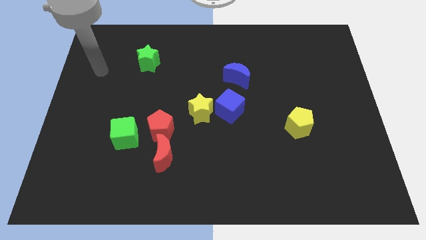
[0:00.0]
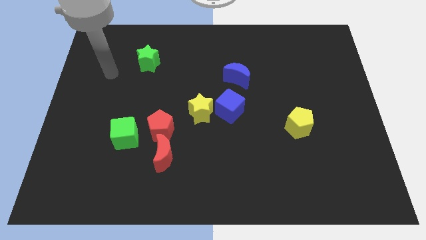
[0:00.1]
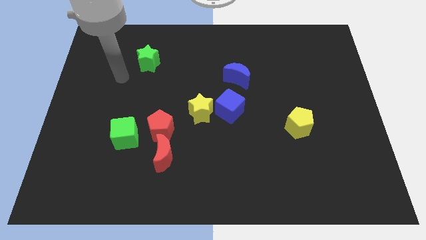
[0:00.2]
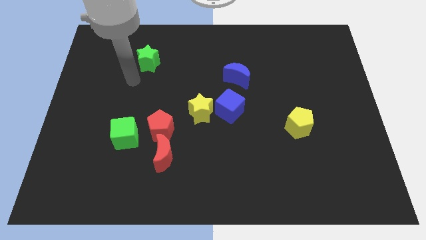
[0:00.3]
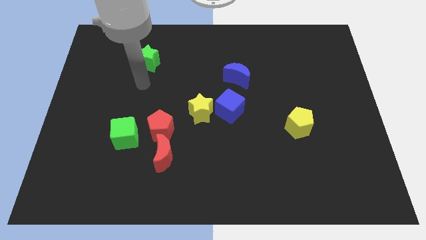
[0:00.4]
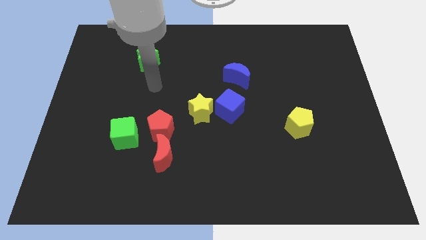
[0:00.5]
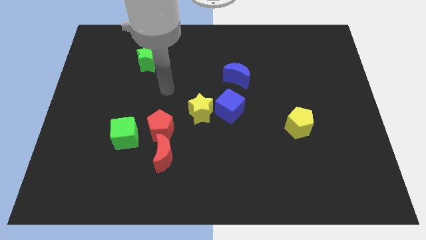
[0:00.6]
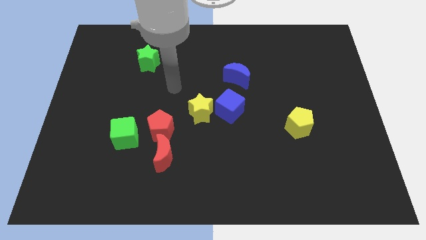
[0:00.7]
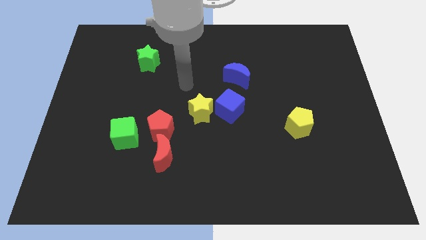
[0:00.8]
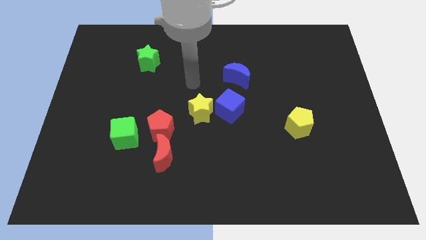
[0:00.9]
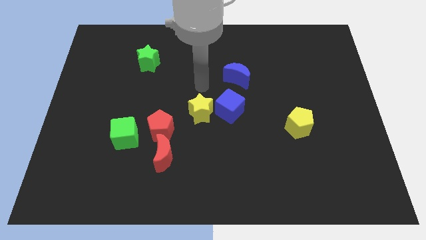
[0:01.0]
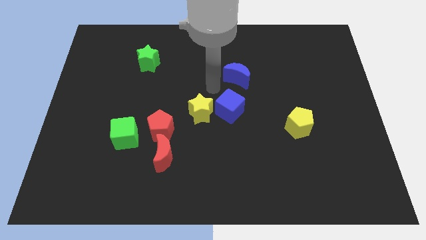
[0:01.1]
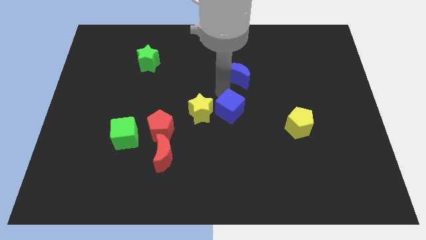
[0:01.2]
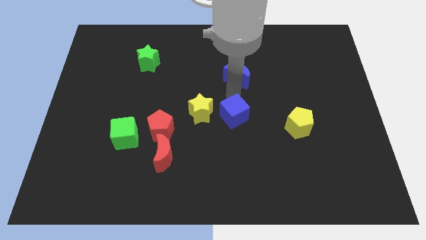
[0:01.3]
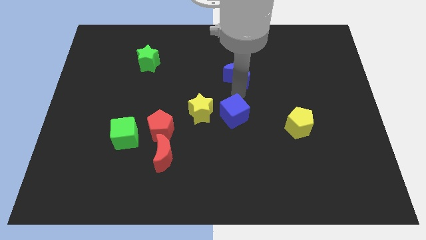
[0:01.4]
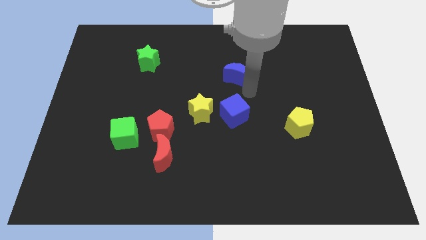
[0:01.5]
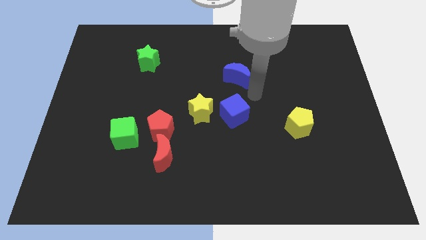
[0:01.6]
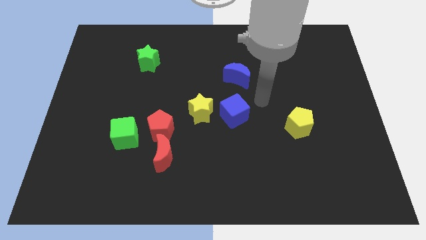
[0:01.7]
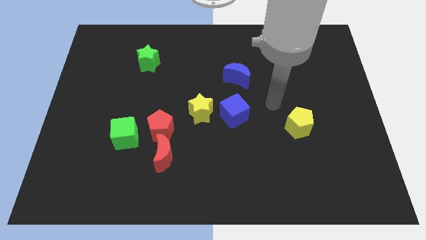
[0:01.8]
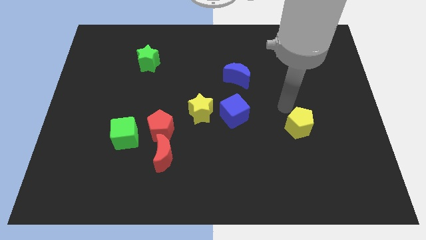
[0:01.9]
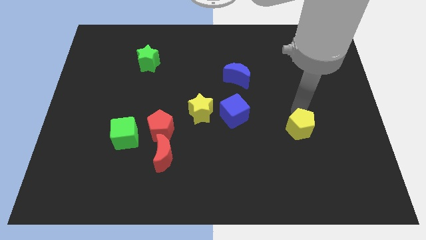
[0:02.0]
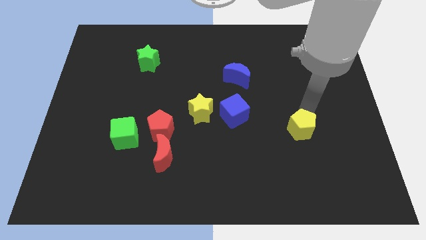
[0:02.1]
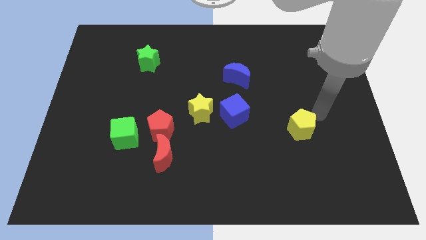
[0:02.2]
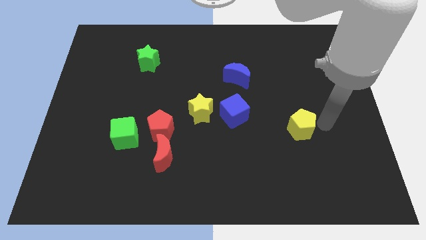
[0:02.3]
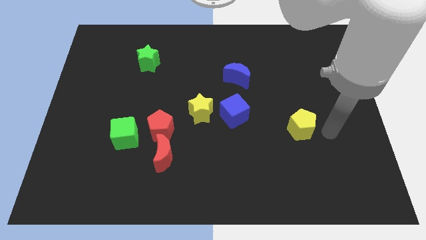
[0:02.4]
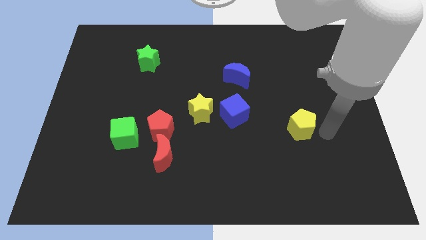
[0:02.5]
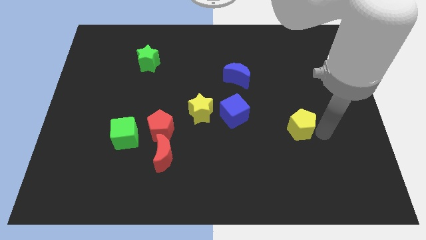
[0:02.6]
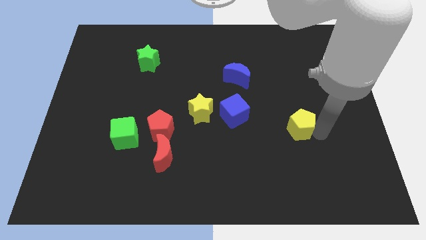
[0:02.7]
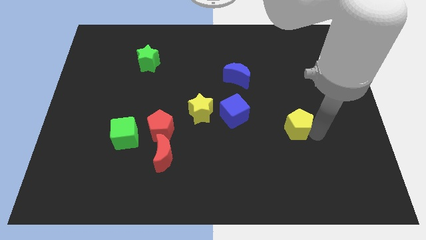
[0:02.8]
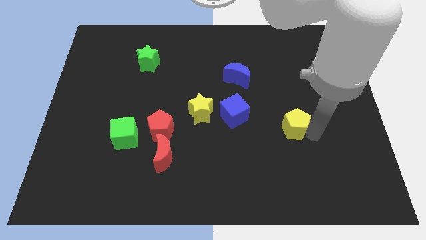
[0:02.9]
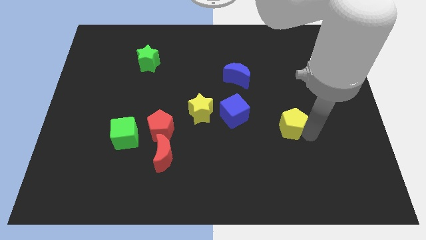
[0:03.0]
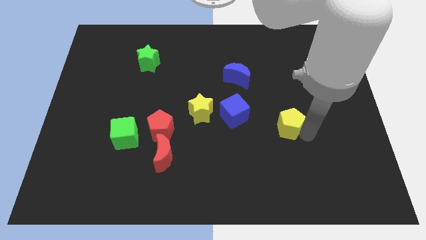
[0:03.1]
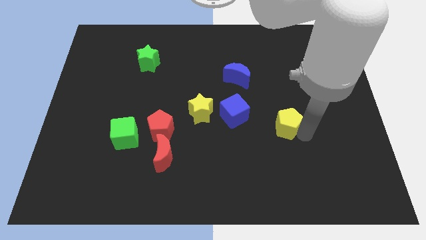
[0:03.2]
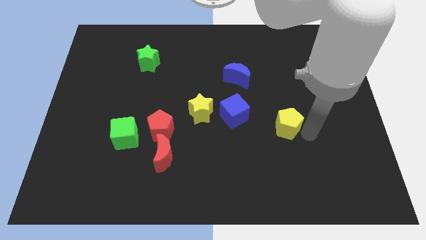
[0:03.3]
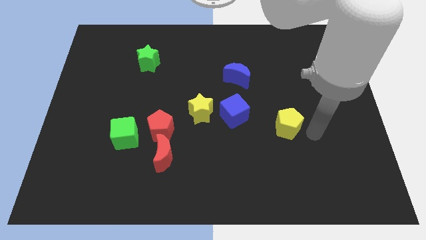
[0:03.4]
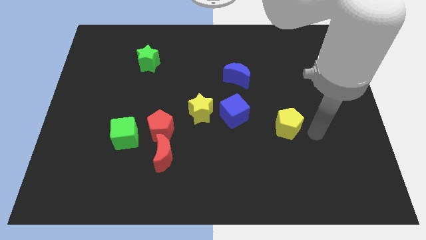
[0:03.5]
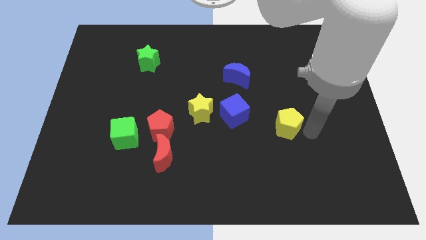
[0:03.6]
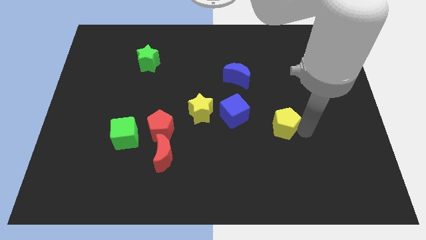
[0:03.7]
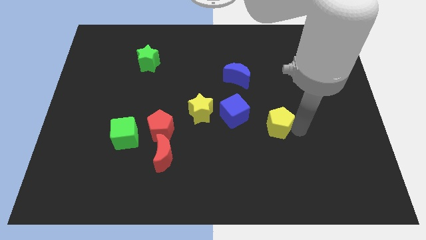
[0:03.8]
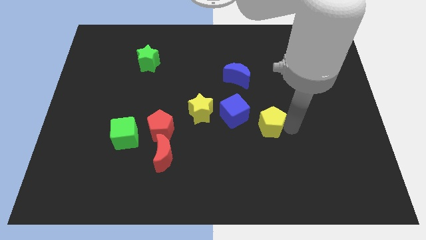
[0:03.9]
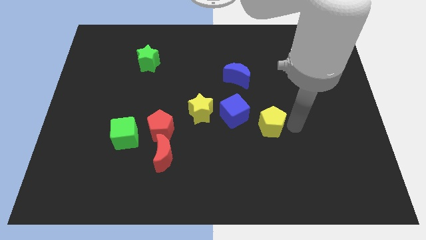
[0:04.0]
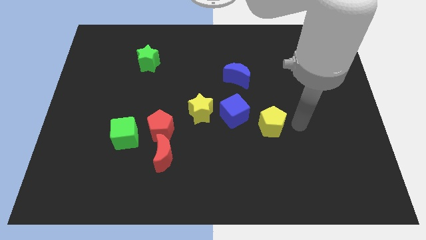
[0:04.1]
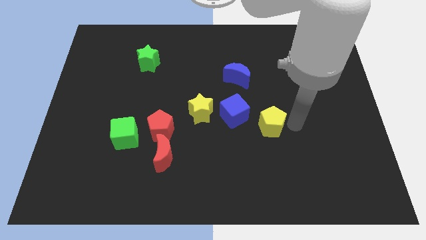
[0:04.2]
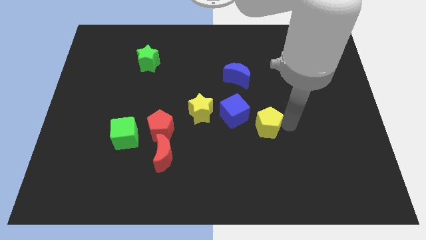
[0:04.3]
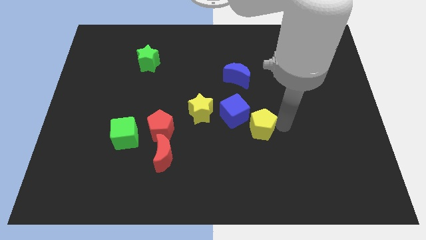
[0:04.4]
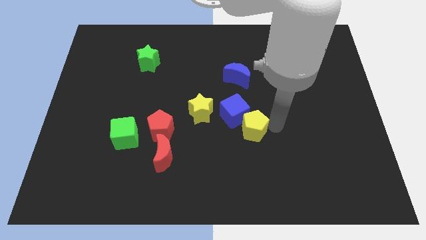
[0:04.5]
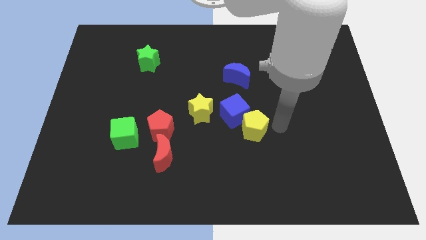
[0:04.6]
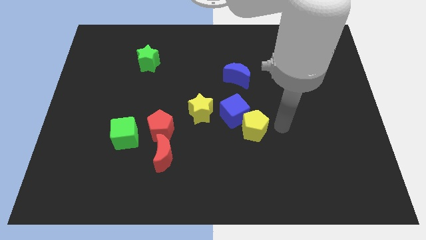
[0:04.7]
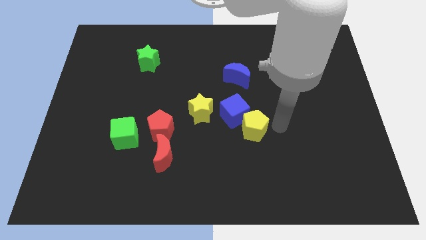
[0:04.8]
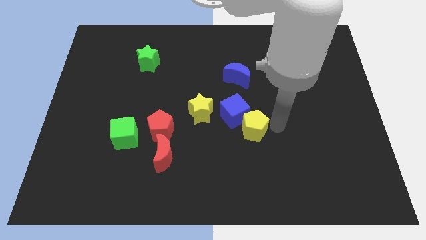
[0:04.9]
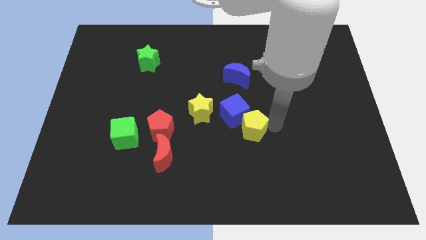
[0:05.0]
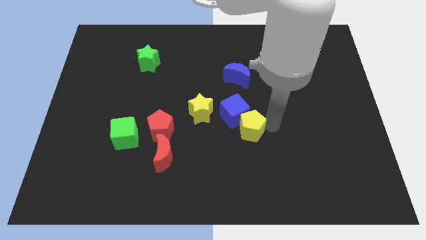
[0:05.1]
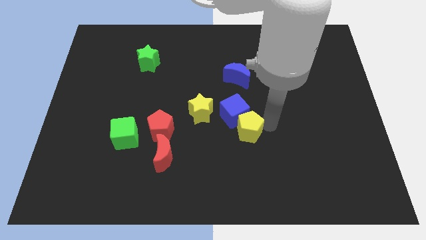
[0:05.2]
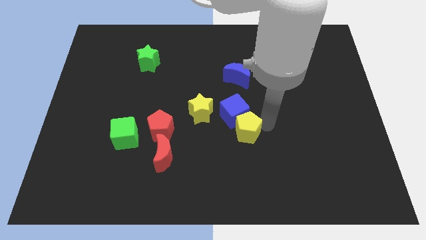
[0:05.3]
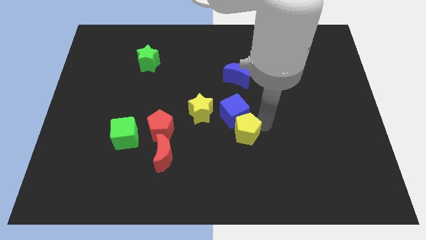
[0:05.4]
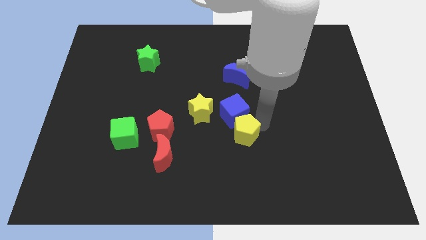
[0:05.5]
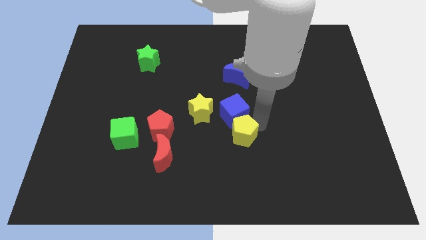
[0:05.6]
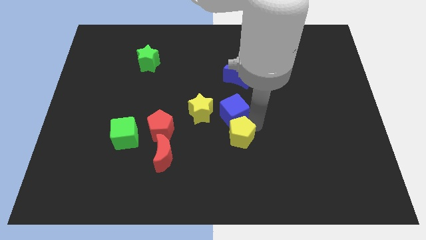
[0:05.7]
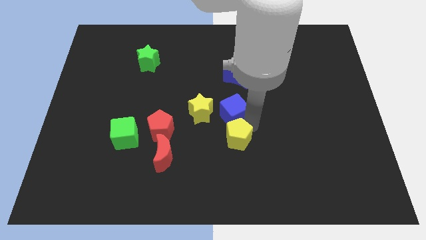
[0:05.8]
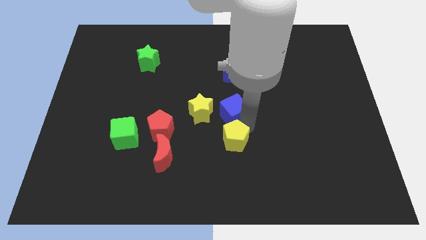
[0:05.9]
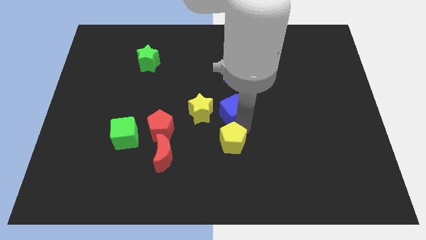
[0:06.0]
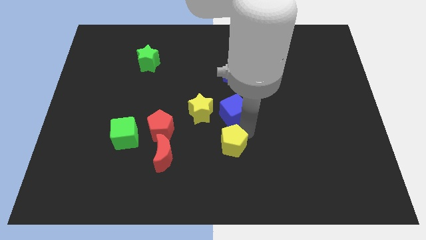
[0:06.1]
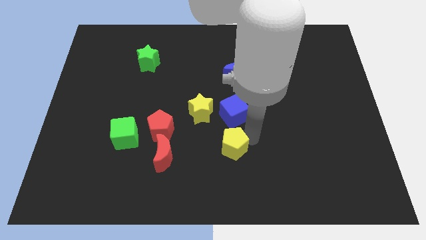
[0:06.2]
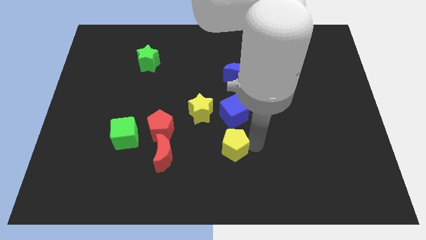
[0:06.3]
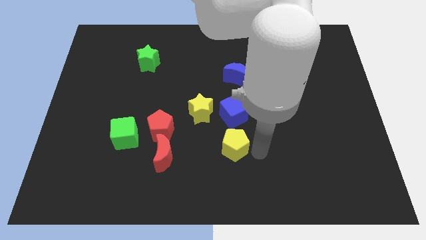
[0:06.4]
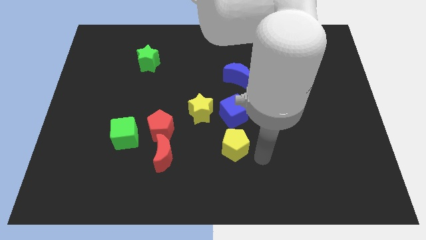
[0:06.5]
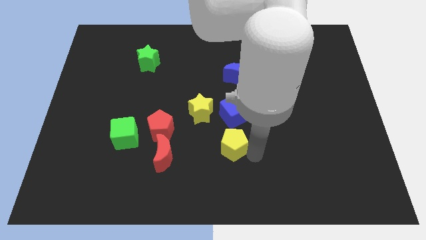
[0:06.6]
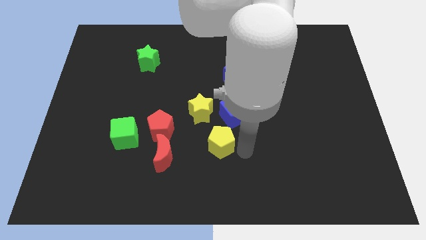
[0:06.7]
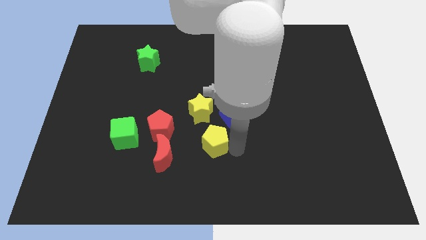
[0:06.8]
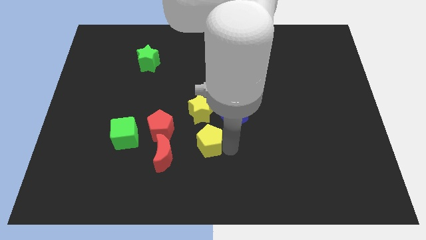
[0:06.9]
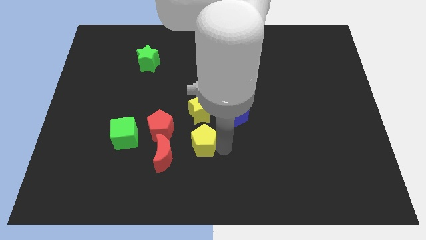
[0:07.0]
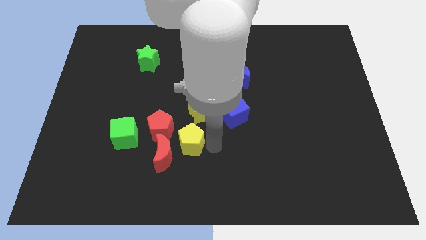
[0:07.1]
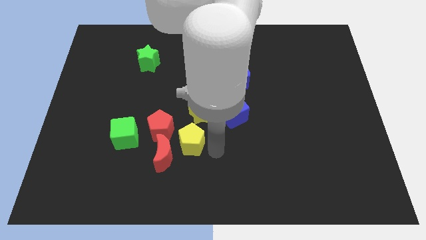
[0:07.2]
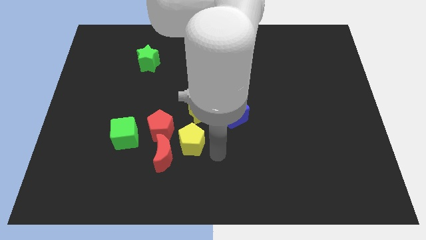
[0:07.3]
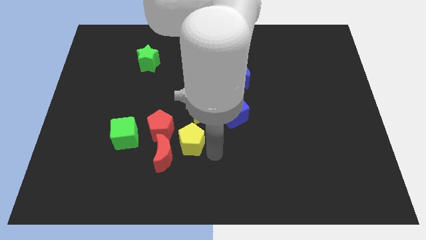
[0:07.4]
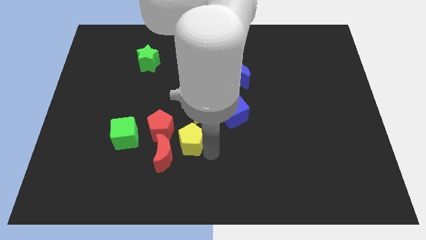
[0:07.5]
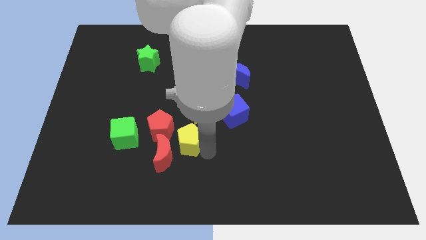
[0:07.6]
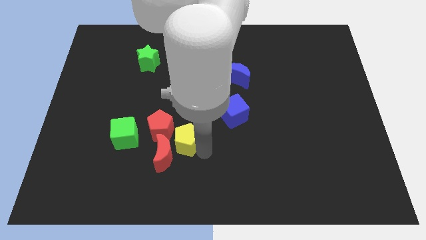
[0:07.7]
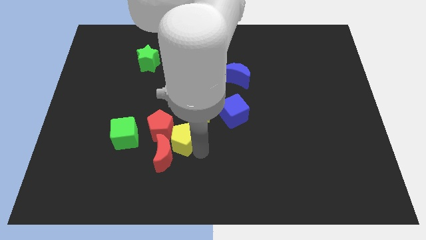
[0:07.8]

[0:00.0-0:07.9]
push the yellow pentagon close to the red pentagon
